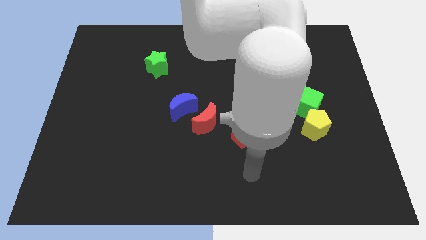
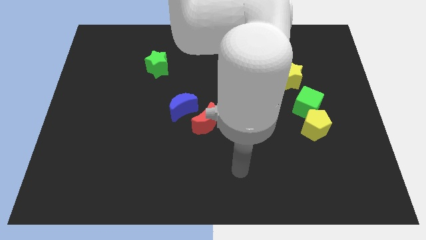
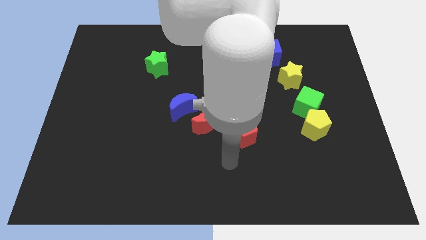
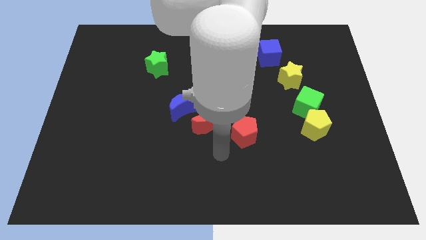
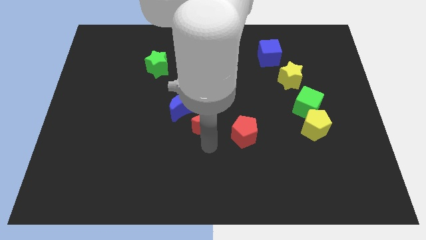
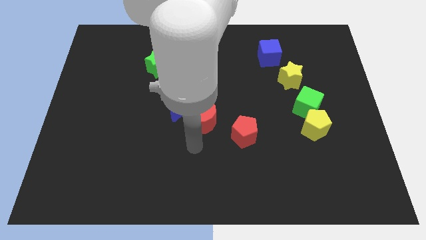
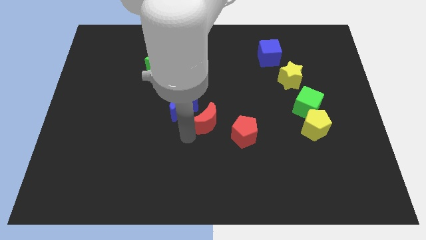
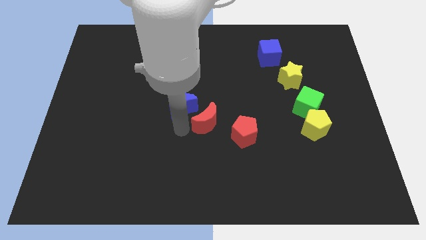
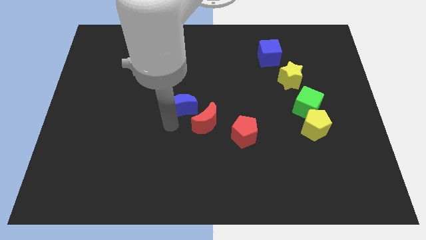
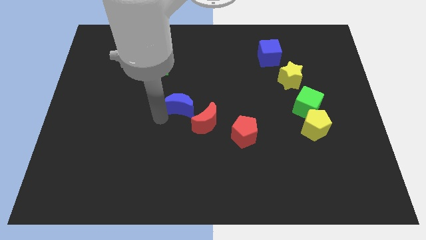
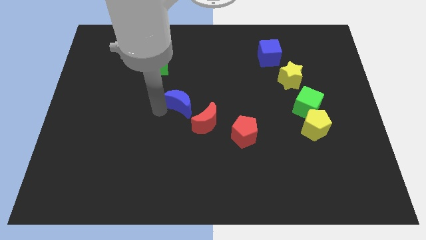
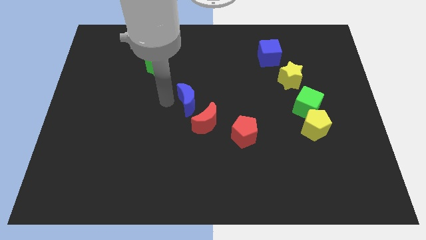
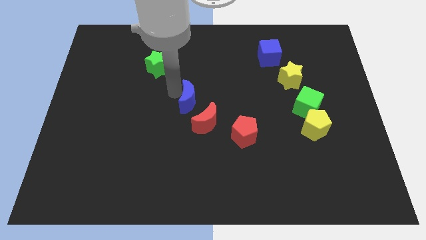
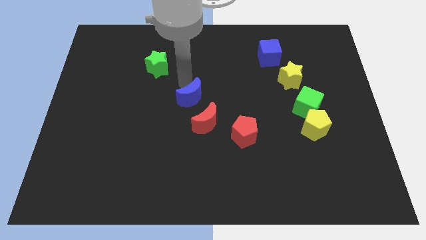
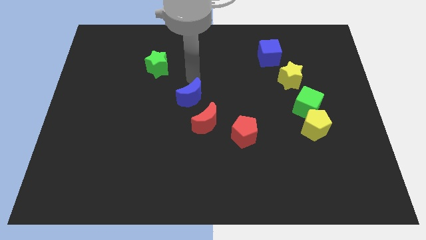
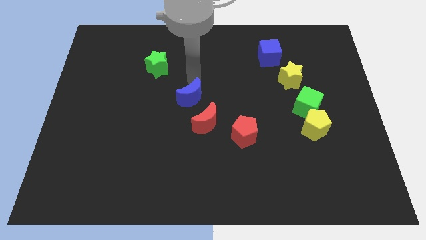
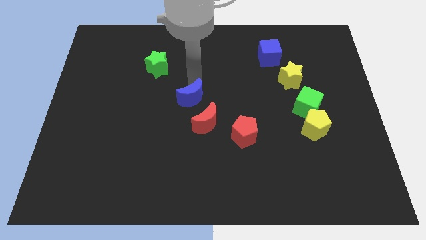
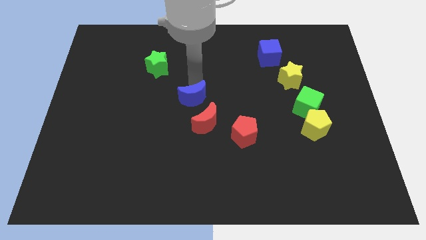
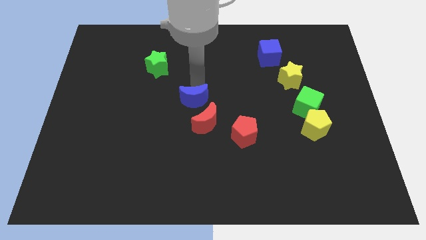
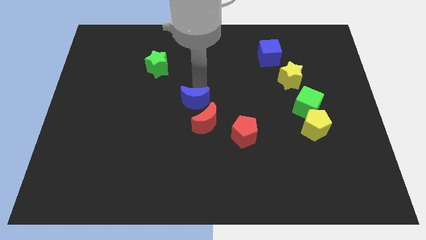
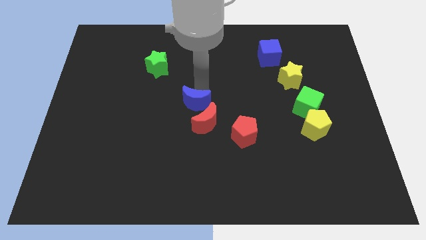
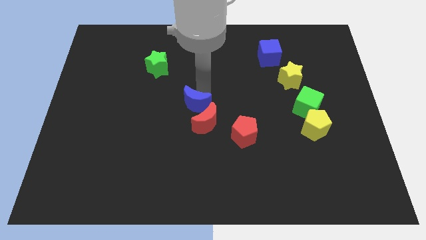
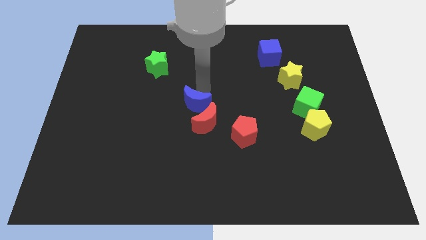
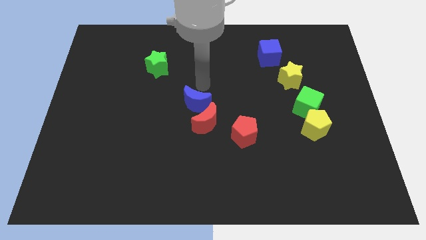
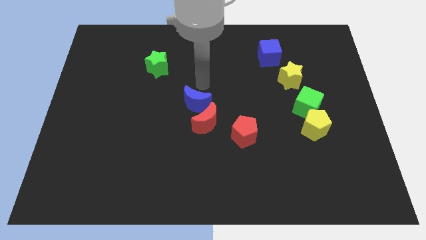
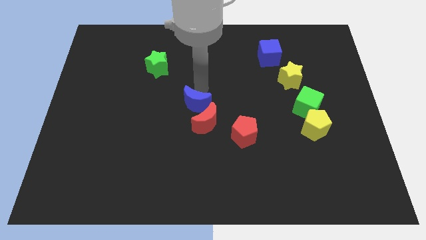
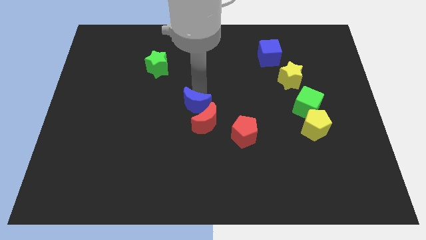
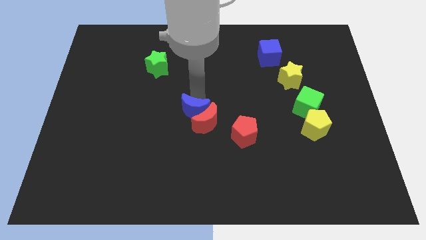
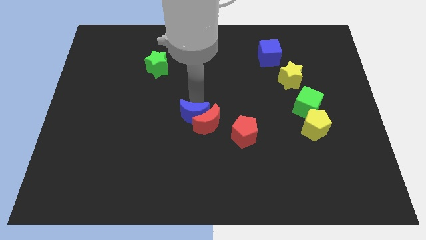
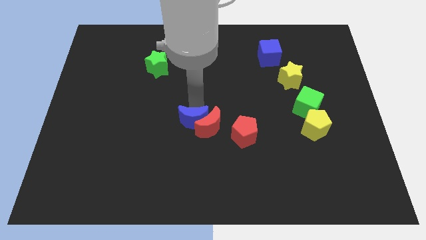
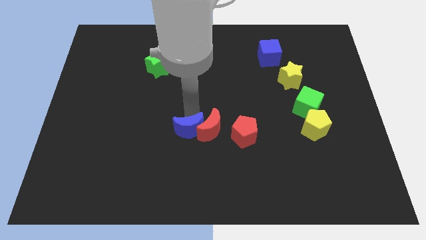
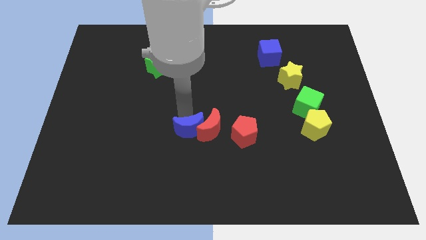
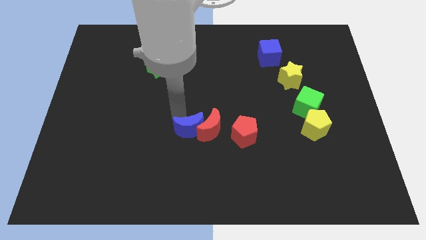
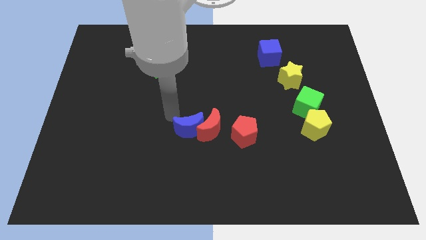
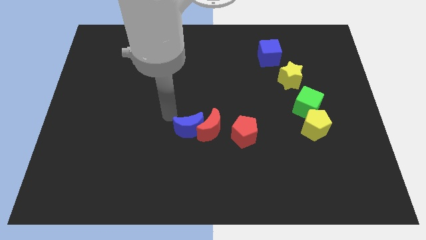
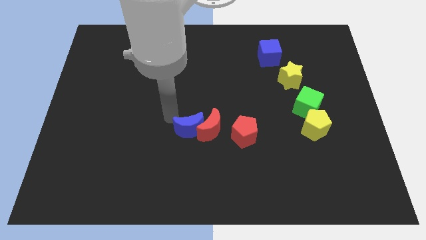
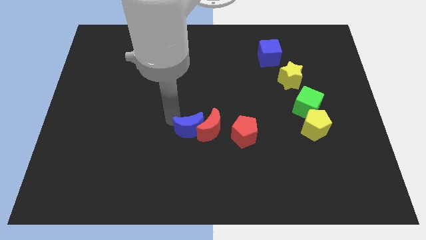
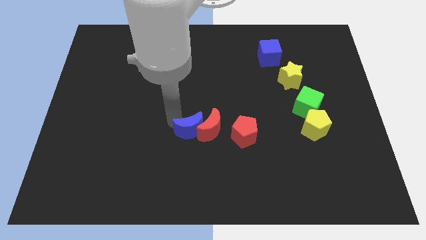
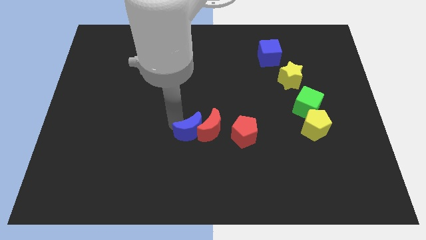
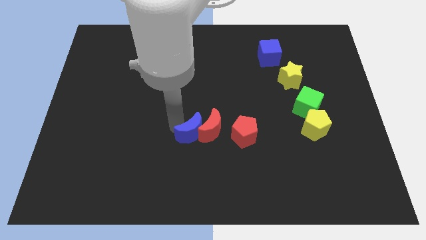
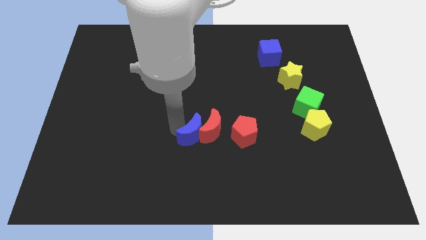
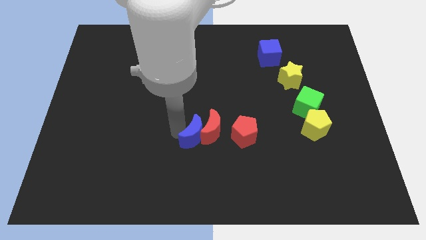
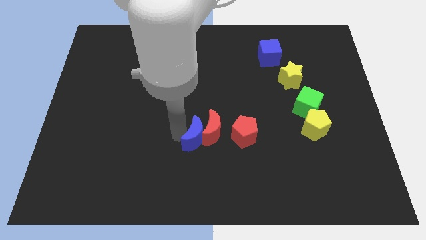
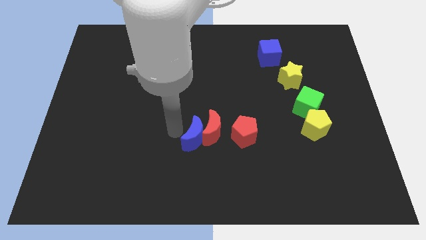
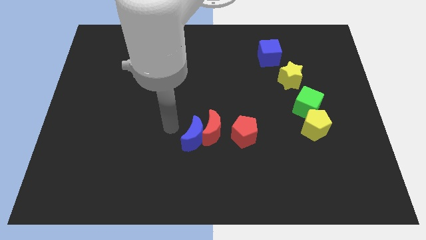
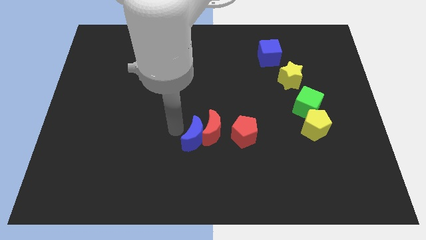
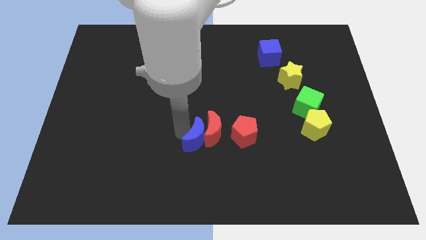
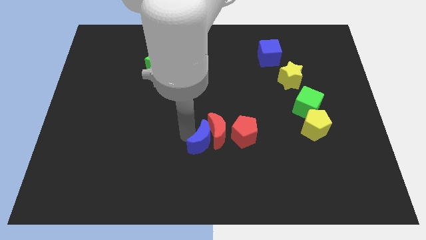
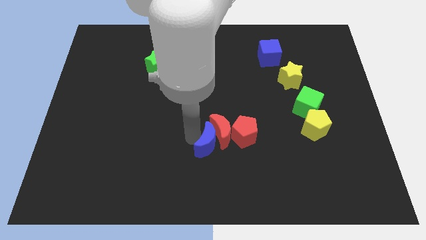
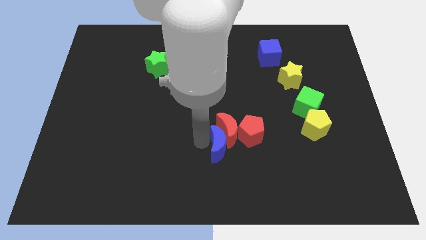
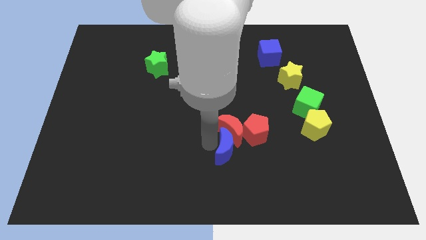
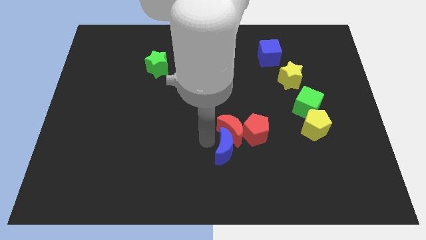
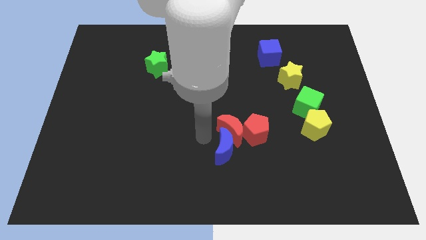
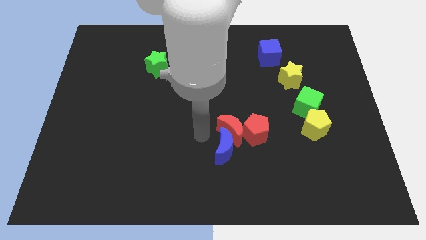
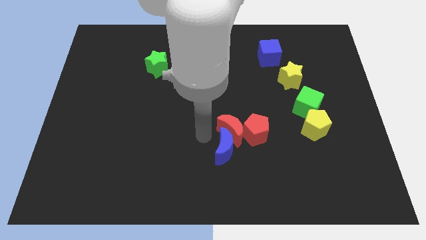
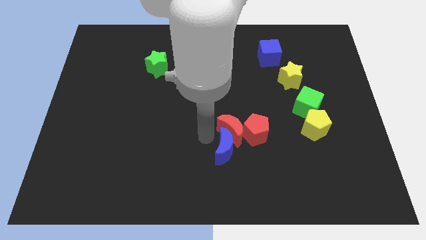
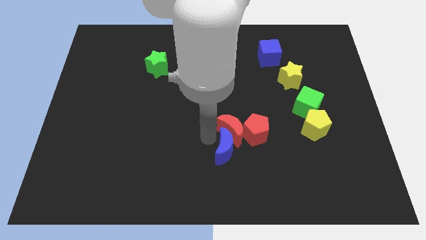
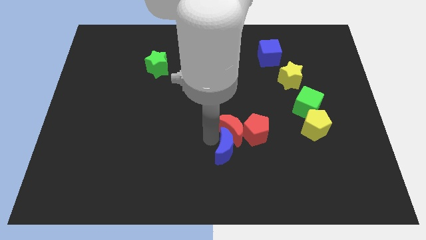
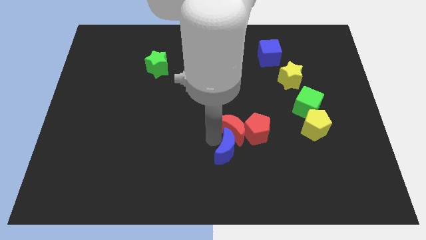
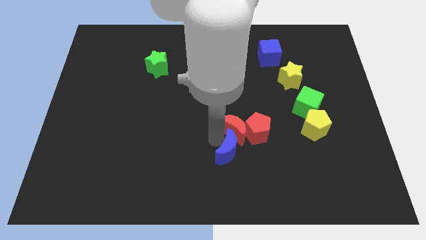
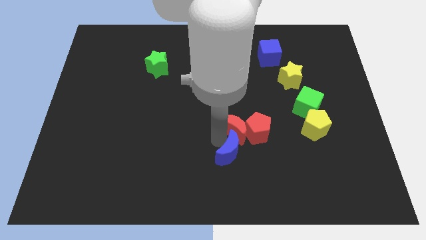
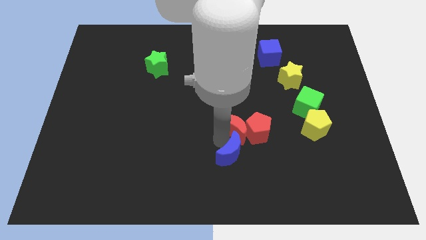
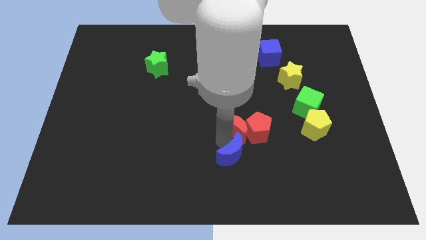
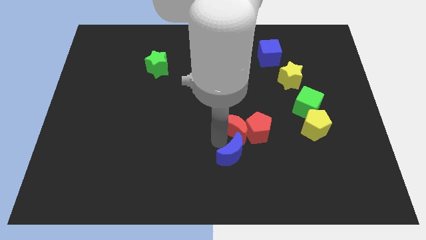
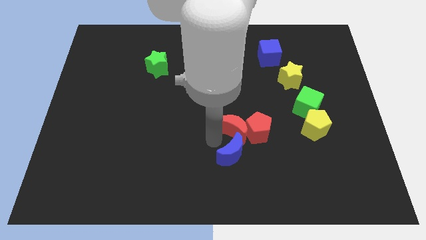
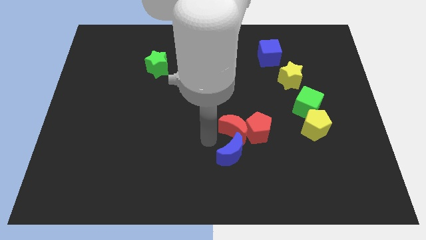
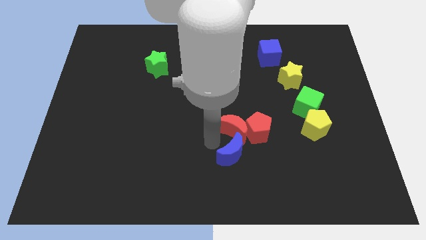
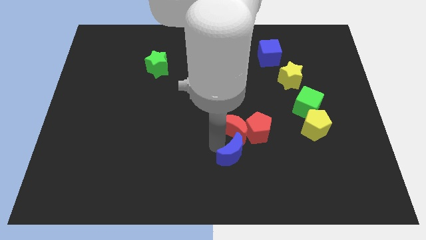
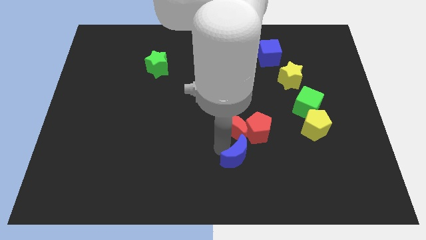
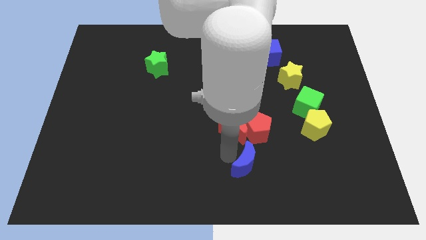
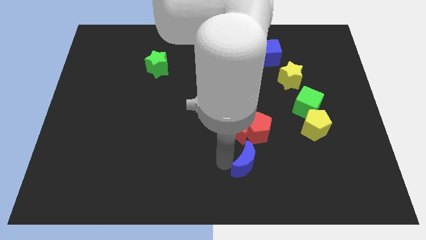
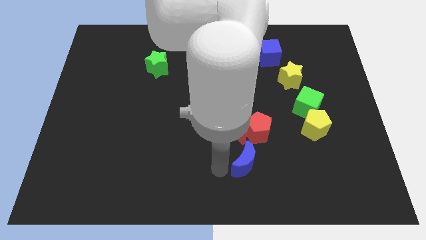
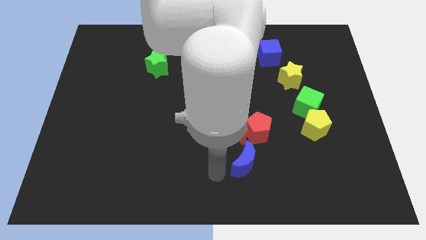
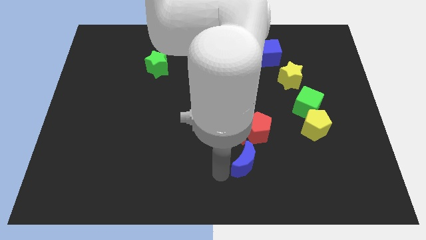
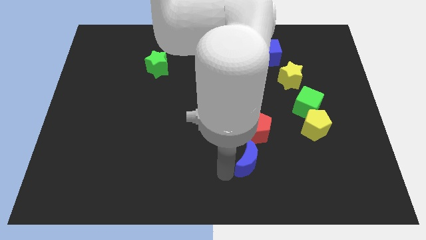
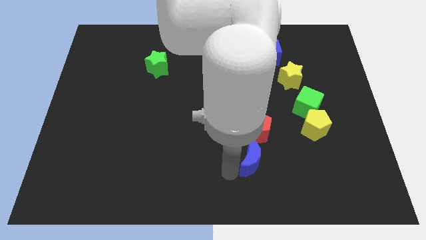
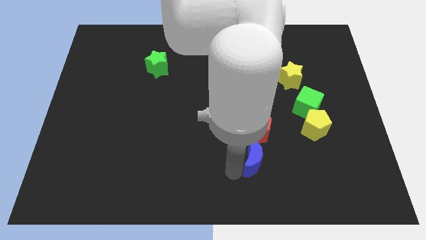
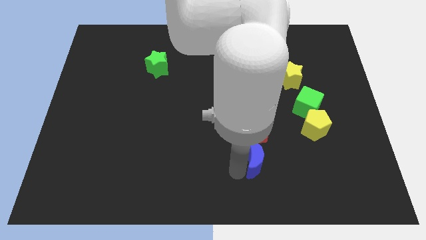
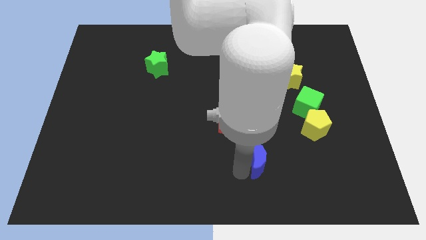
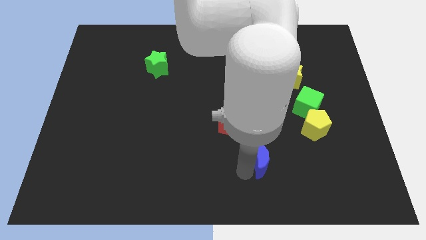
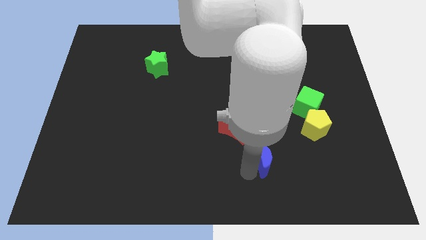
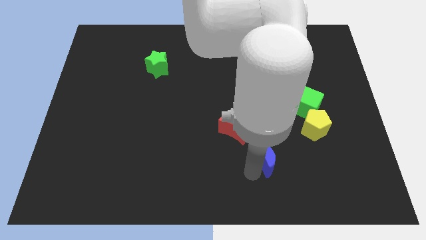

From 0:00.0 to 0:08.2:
slide the blue moon to the bottom right side of the red pentagon
